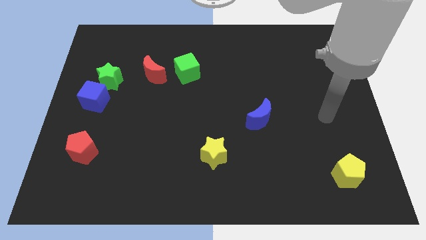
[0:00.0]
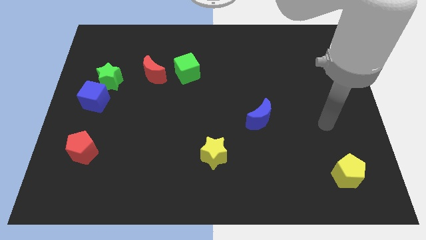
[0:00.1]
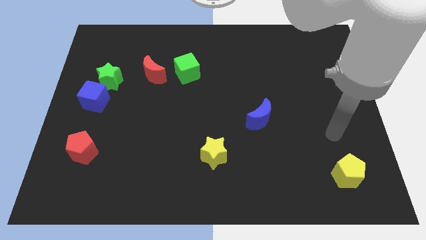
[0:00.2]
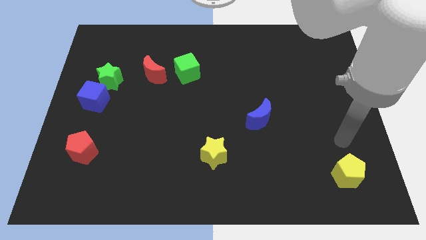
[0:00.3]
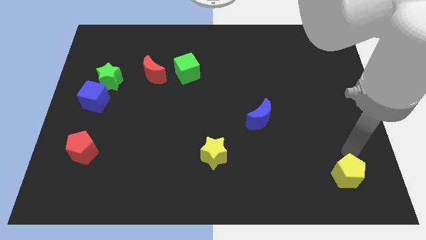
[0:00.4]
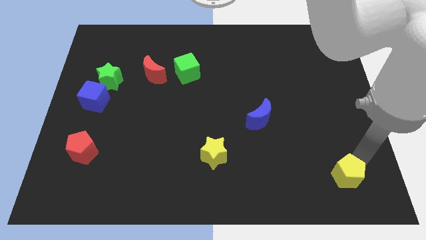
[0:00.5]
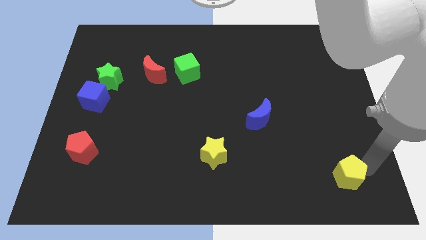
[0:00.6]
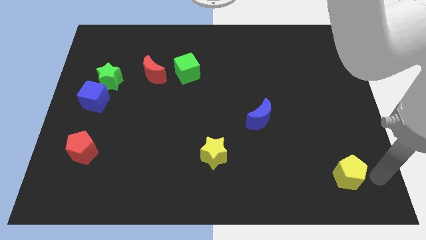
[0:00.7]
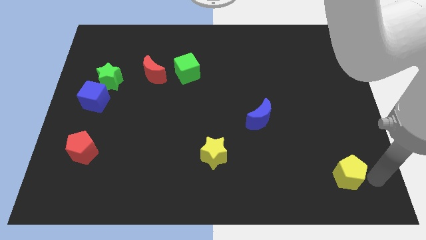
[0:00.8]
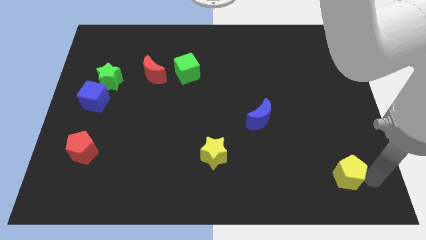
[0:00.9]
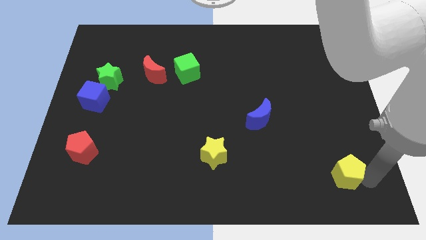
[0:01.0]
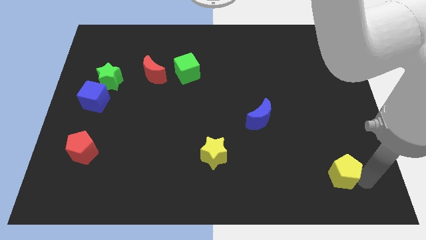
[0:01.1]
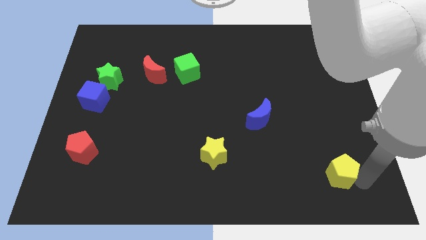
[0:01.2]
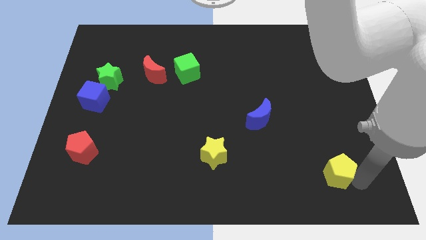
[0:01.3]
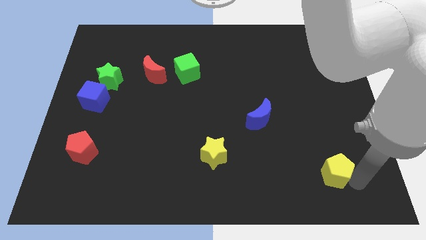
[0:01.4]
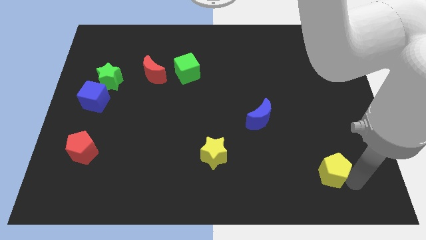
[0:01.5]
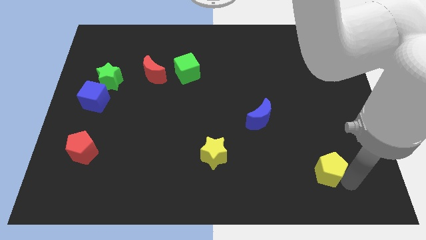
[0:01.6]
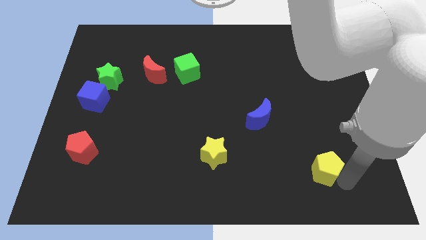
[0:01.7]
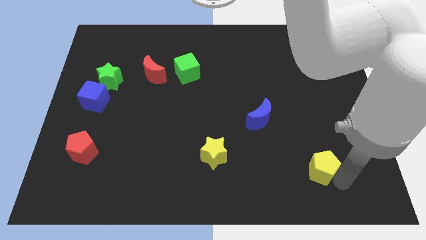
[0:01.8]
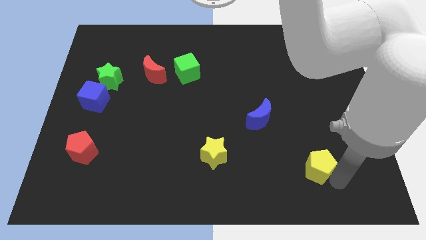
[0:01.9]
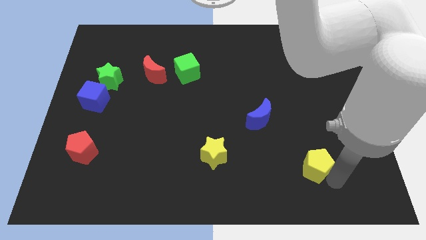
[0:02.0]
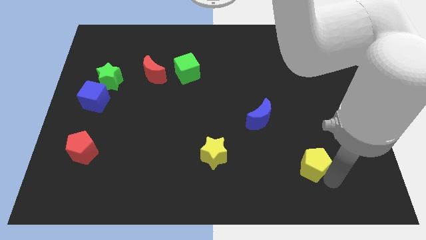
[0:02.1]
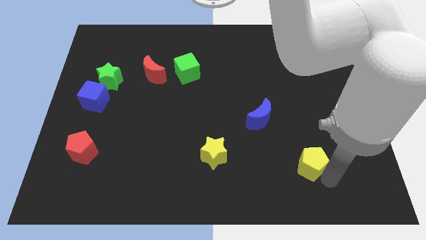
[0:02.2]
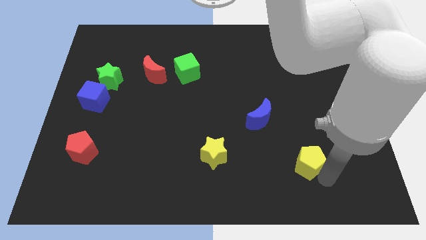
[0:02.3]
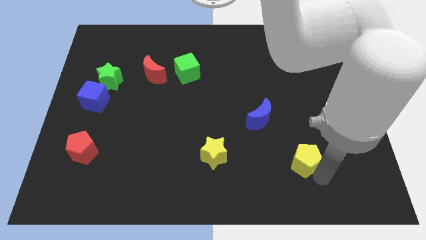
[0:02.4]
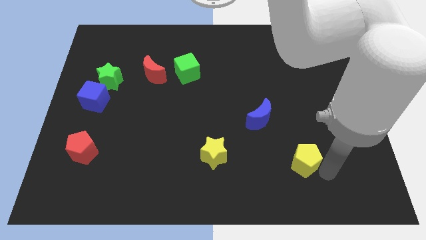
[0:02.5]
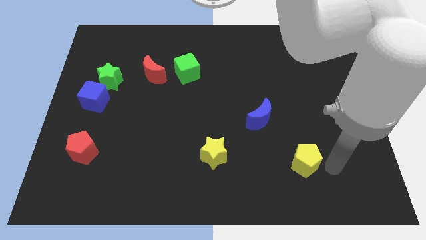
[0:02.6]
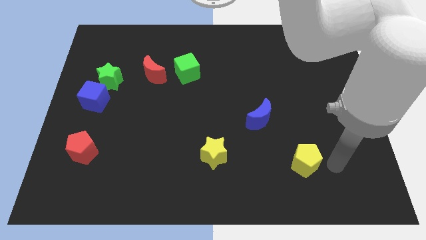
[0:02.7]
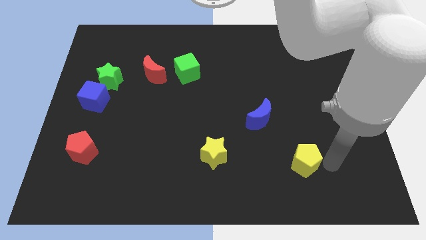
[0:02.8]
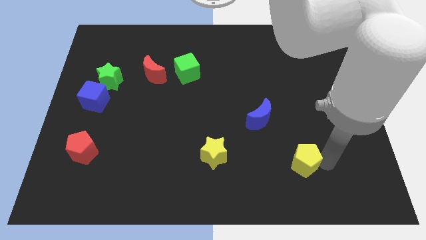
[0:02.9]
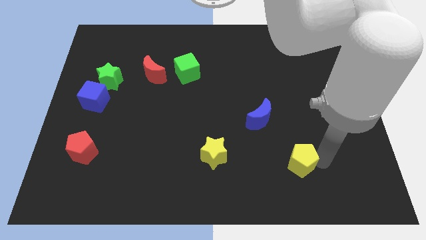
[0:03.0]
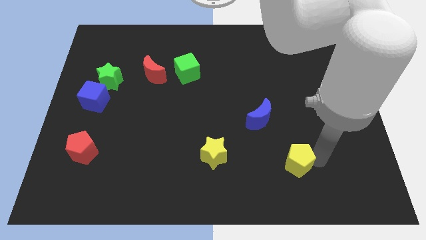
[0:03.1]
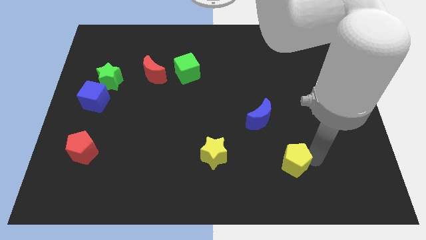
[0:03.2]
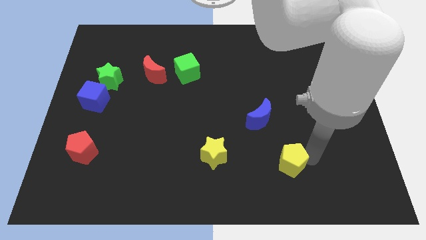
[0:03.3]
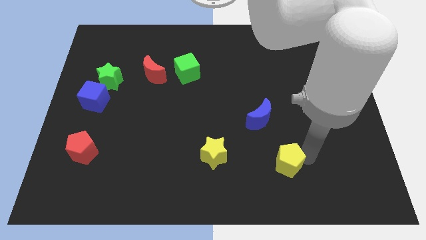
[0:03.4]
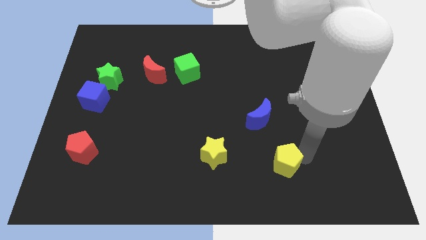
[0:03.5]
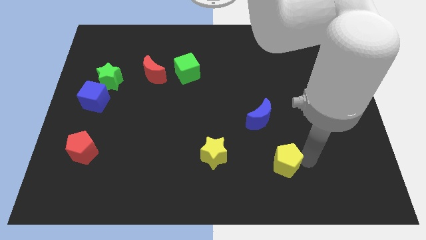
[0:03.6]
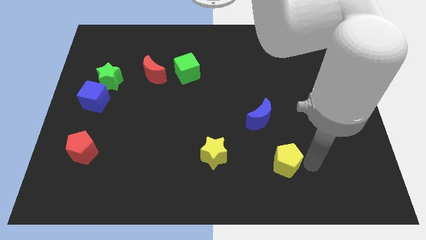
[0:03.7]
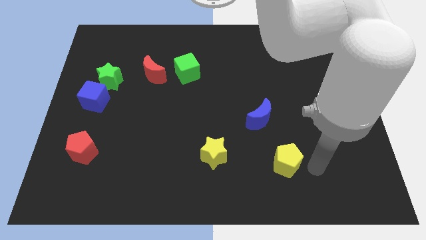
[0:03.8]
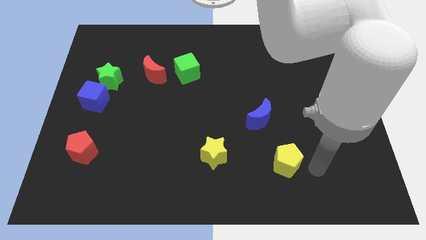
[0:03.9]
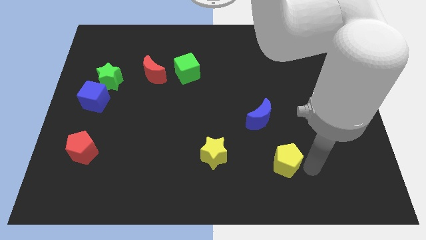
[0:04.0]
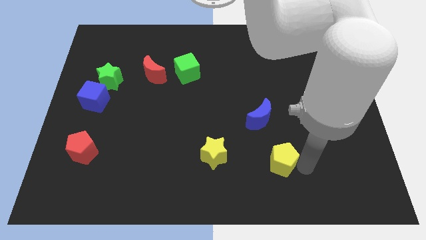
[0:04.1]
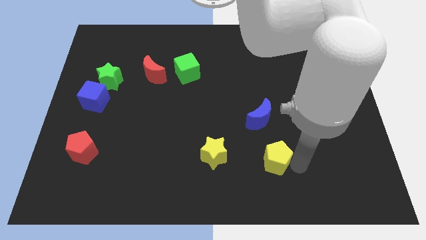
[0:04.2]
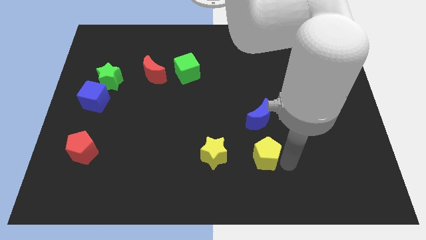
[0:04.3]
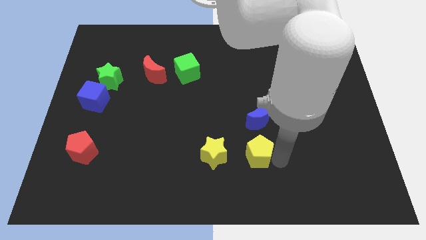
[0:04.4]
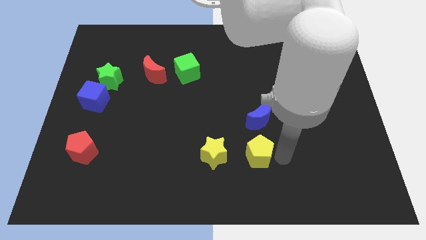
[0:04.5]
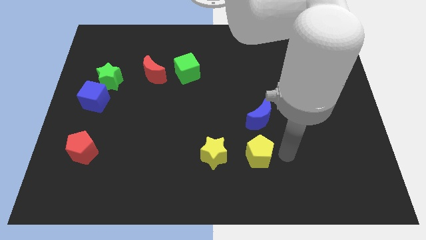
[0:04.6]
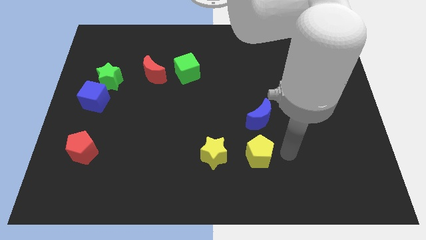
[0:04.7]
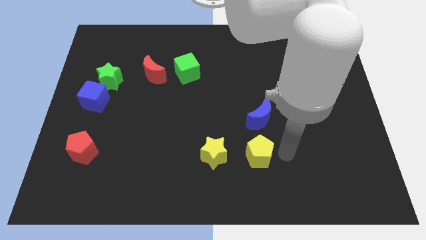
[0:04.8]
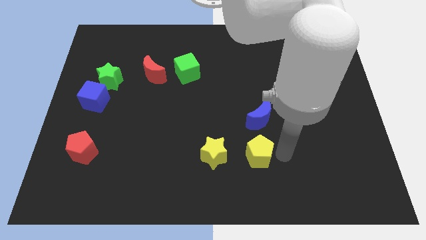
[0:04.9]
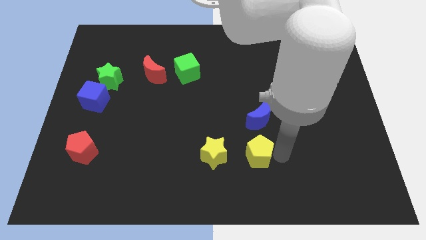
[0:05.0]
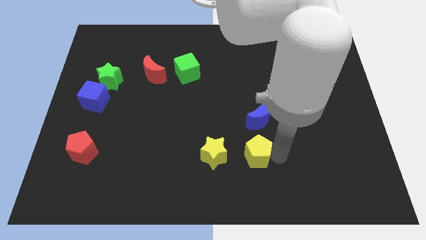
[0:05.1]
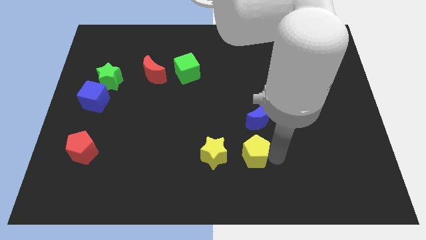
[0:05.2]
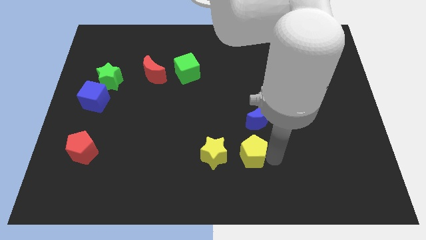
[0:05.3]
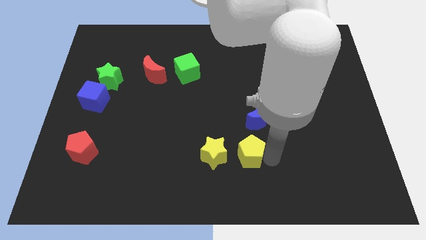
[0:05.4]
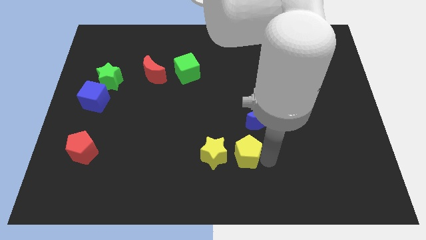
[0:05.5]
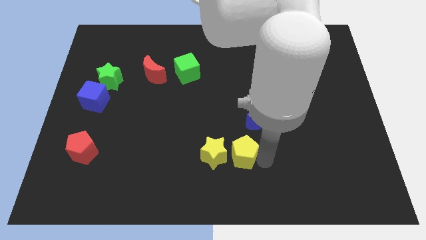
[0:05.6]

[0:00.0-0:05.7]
move the yellow pentagon close to the yellow star

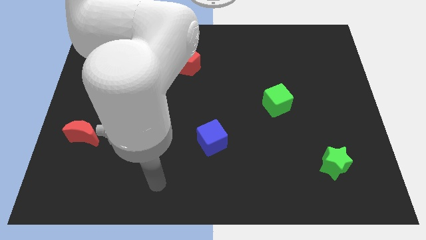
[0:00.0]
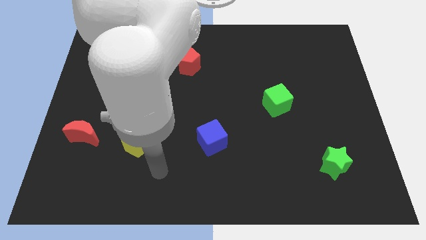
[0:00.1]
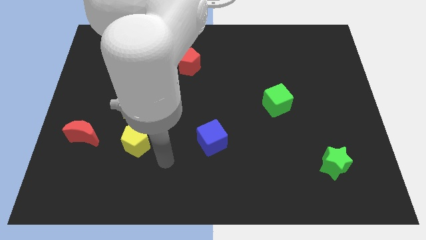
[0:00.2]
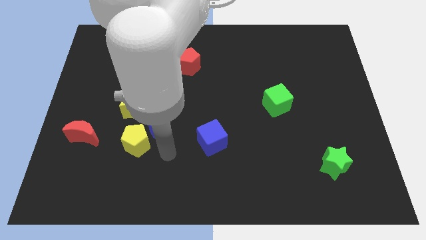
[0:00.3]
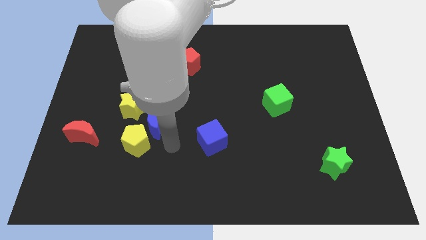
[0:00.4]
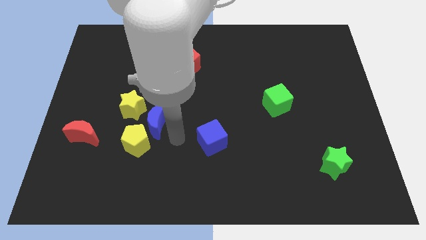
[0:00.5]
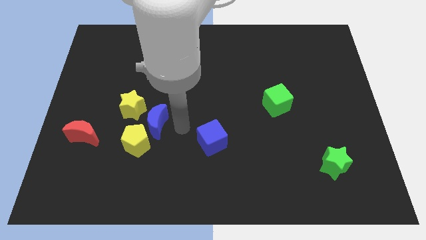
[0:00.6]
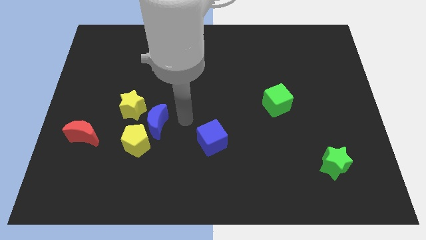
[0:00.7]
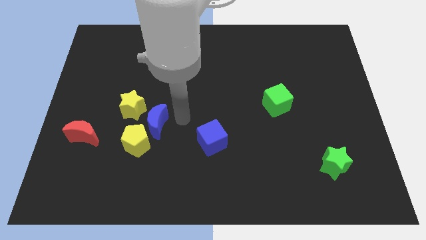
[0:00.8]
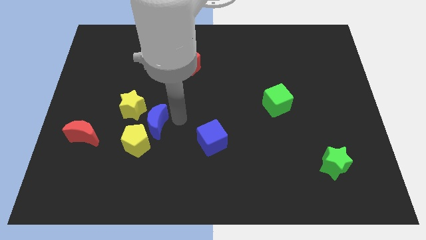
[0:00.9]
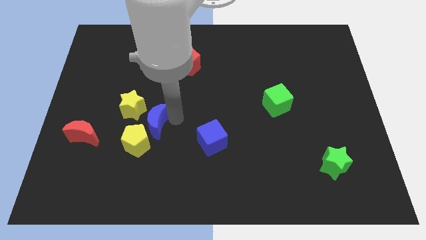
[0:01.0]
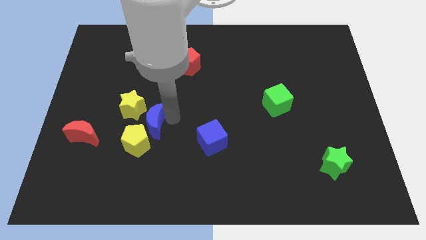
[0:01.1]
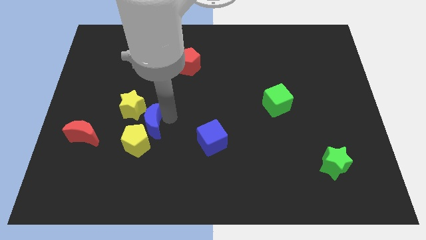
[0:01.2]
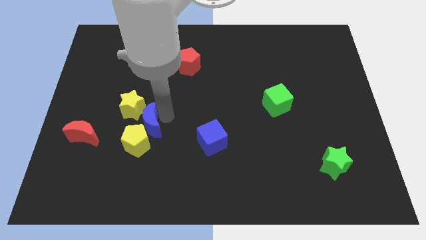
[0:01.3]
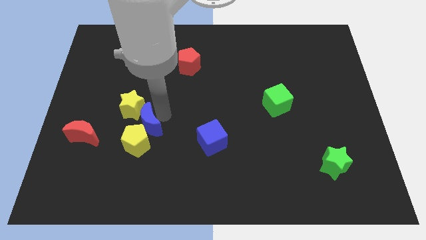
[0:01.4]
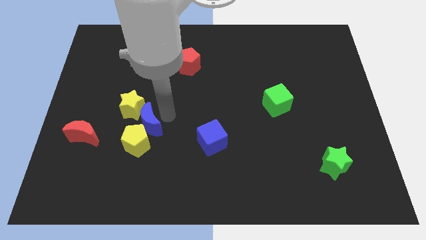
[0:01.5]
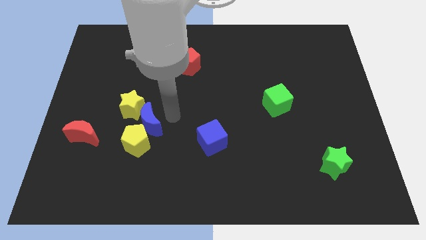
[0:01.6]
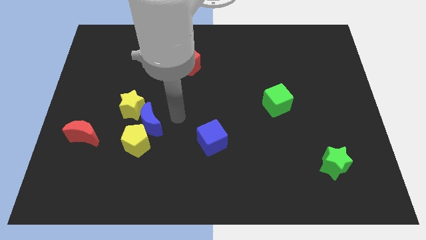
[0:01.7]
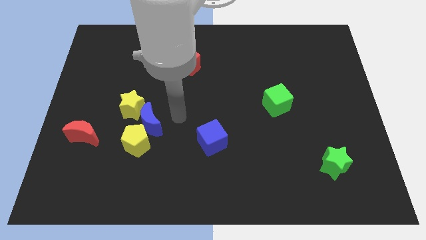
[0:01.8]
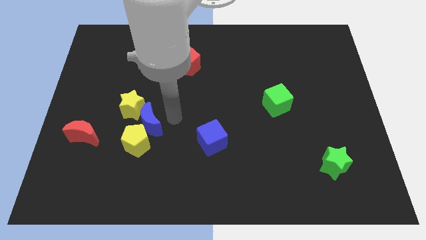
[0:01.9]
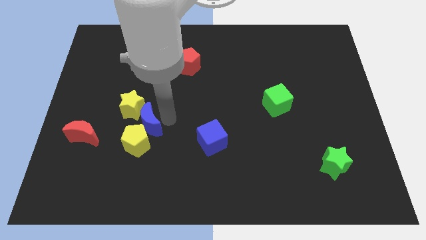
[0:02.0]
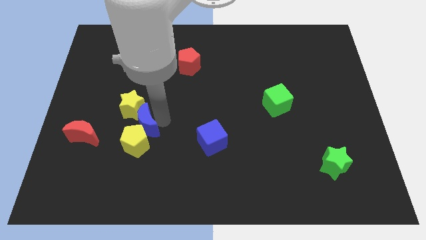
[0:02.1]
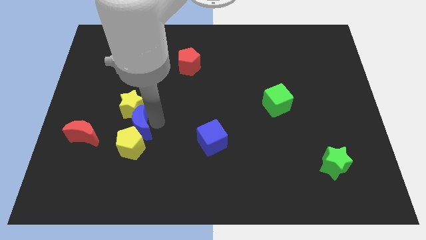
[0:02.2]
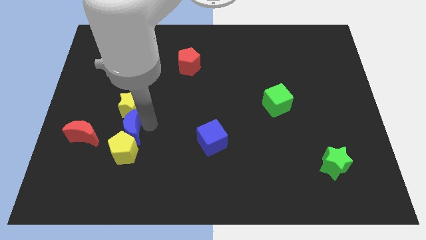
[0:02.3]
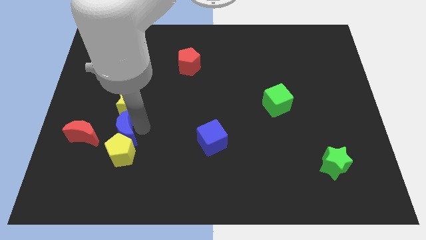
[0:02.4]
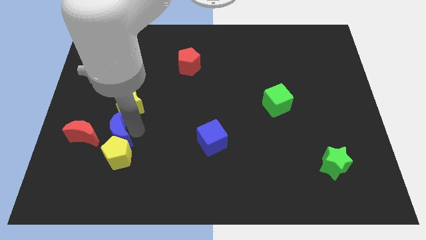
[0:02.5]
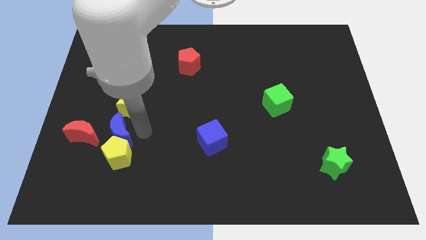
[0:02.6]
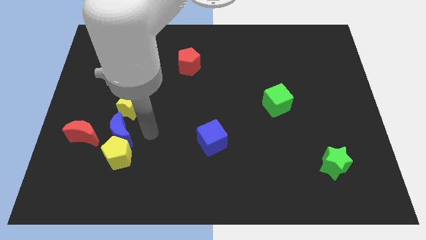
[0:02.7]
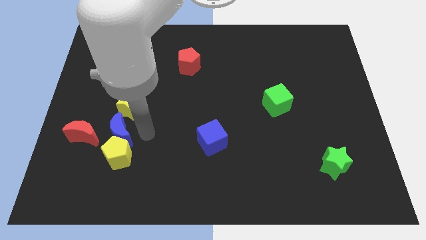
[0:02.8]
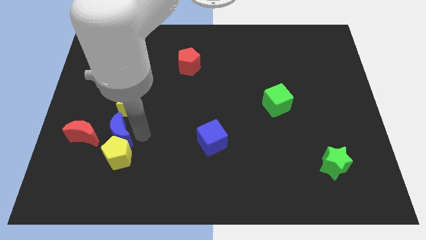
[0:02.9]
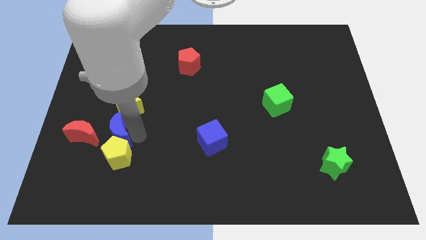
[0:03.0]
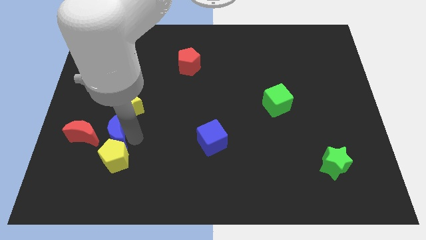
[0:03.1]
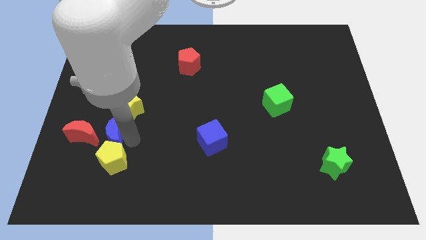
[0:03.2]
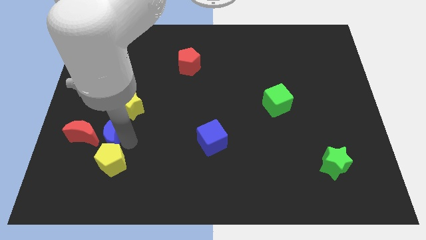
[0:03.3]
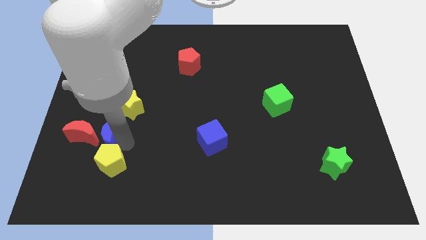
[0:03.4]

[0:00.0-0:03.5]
slide the blue moon towards the red moon
